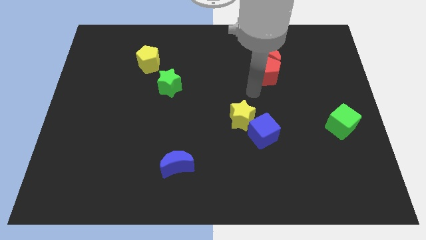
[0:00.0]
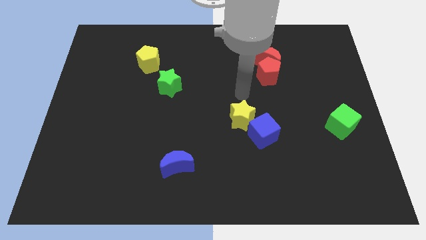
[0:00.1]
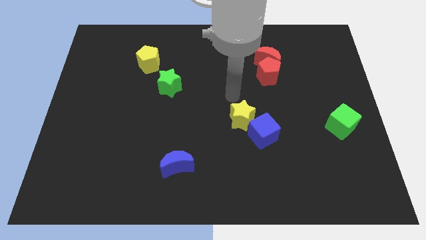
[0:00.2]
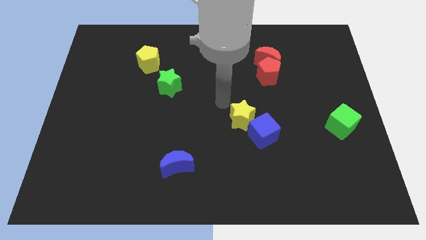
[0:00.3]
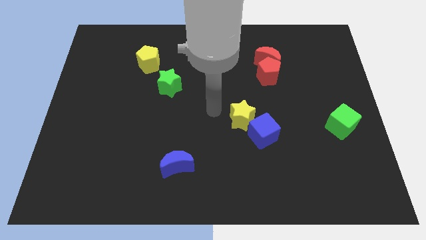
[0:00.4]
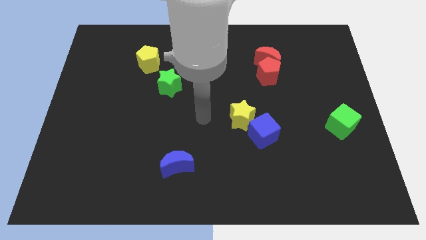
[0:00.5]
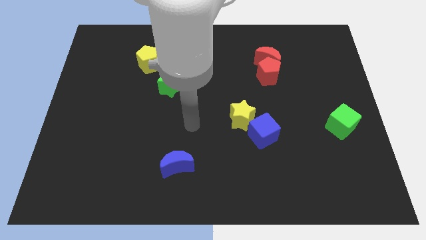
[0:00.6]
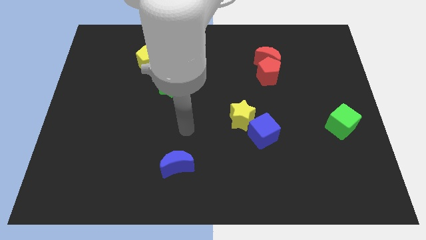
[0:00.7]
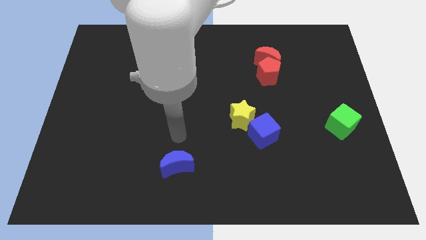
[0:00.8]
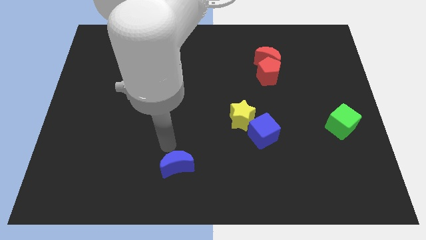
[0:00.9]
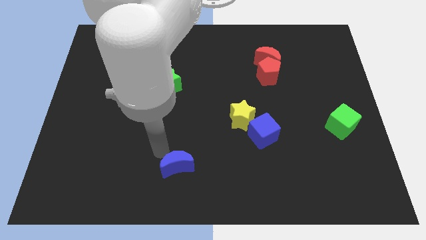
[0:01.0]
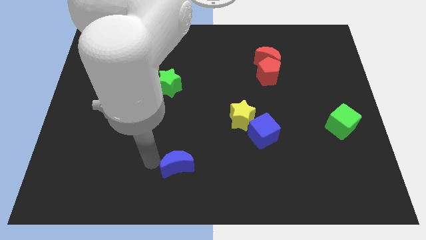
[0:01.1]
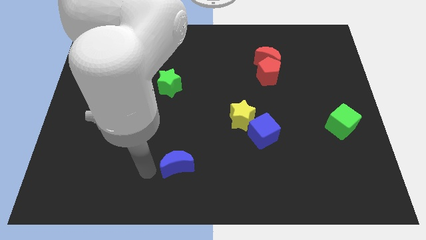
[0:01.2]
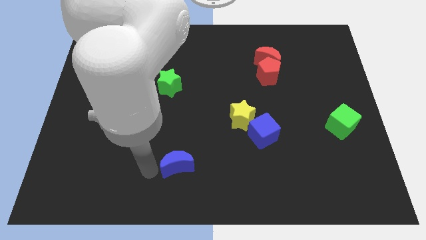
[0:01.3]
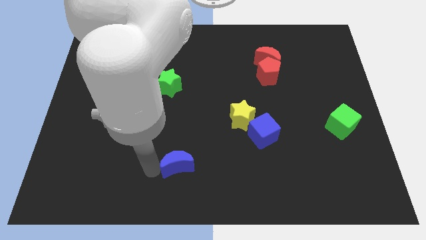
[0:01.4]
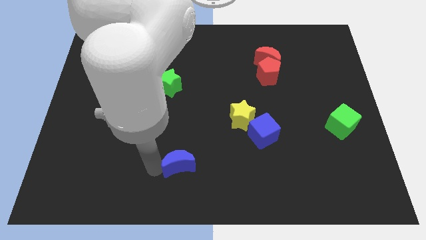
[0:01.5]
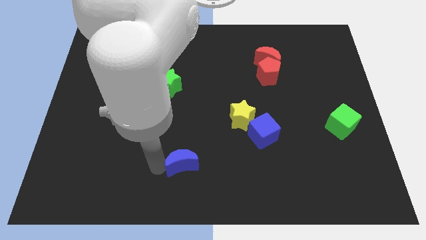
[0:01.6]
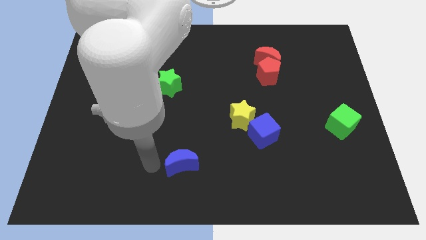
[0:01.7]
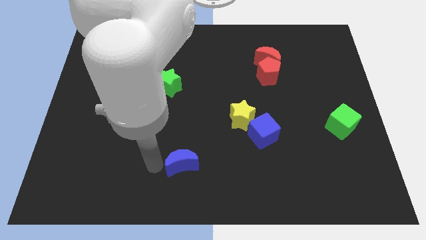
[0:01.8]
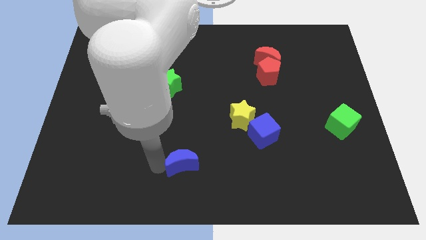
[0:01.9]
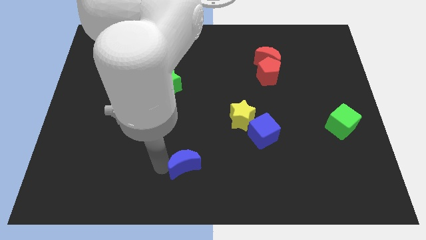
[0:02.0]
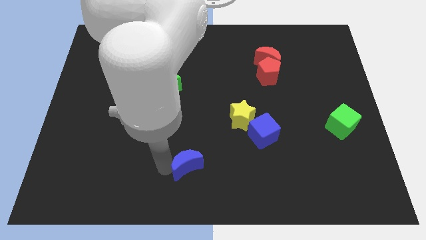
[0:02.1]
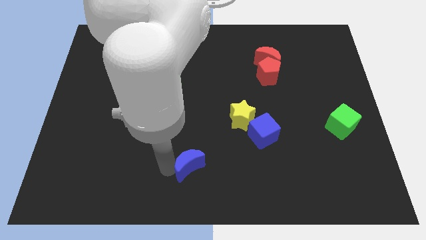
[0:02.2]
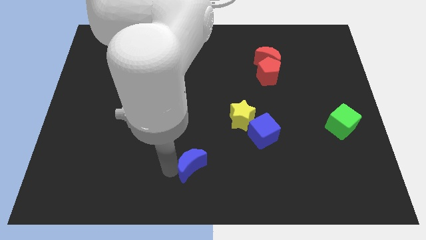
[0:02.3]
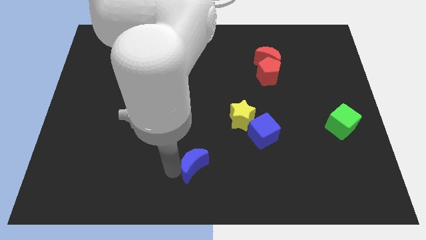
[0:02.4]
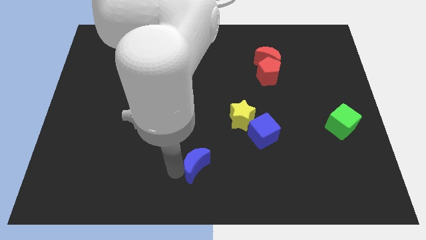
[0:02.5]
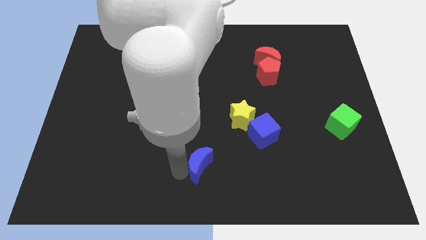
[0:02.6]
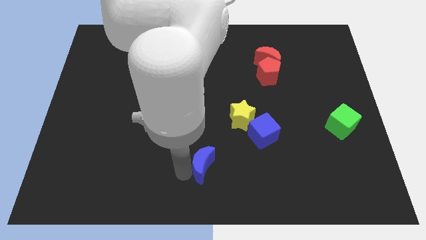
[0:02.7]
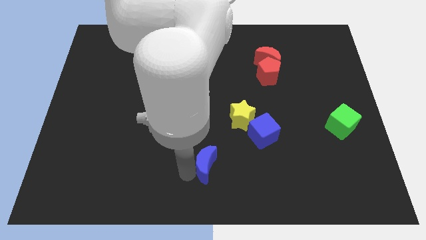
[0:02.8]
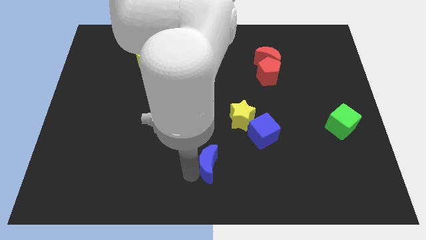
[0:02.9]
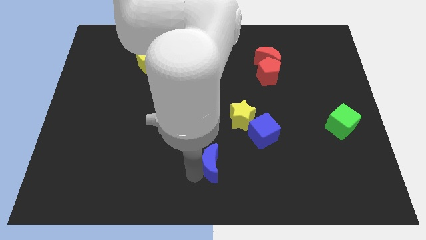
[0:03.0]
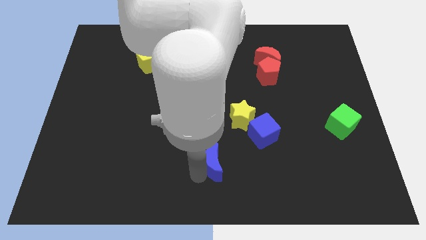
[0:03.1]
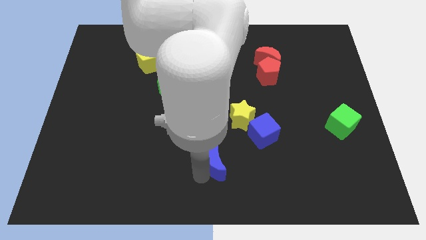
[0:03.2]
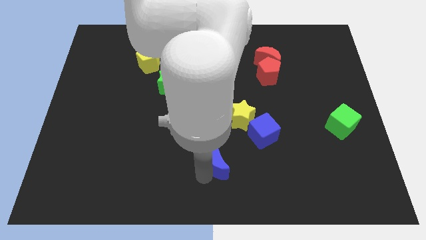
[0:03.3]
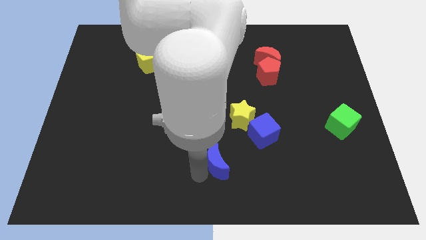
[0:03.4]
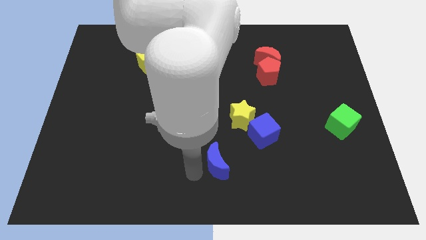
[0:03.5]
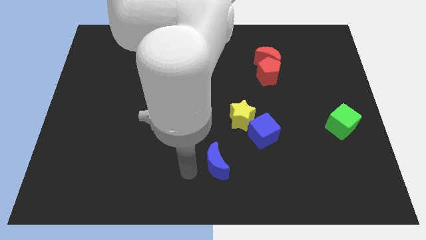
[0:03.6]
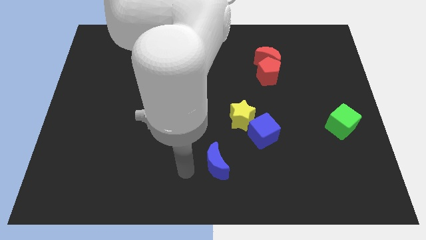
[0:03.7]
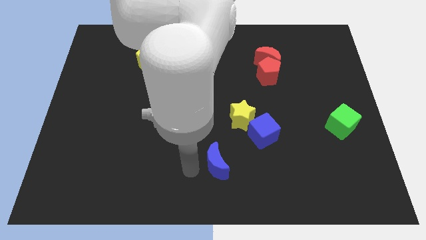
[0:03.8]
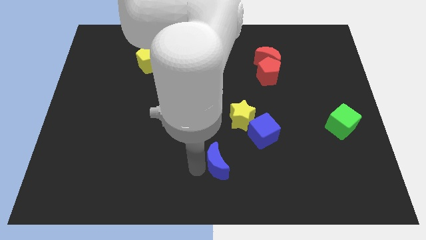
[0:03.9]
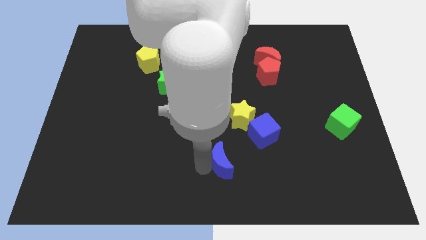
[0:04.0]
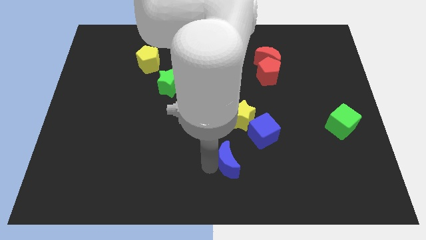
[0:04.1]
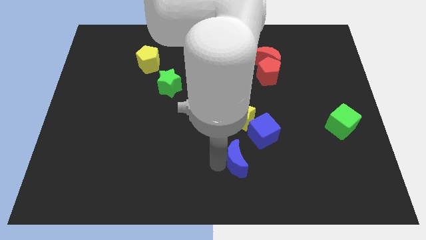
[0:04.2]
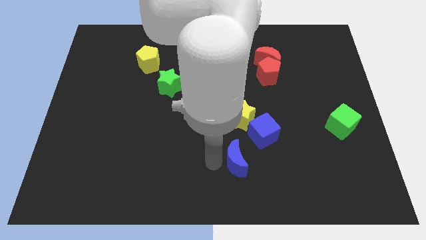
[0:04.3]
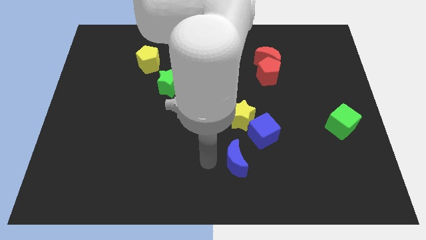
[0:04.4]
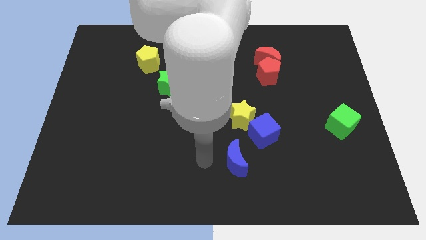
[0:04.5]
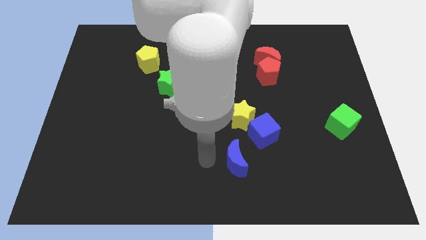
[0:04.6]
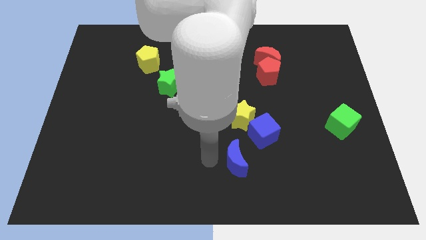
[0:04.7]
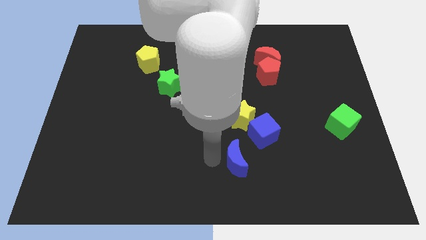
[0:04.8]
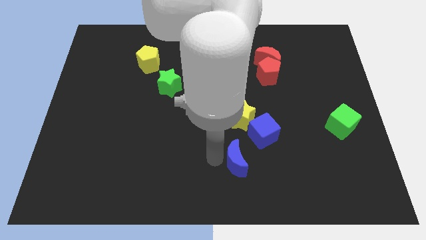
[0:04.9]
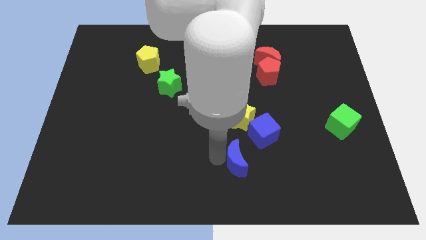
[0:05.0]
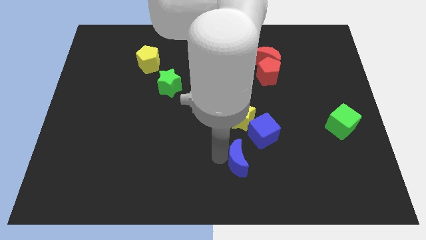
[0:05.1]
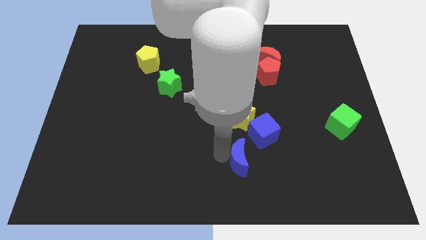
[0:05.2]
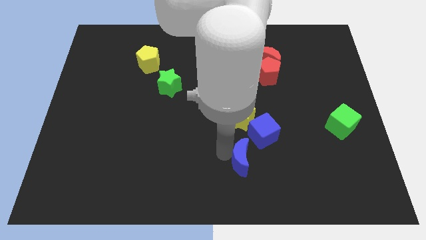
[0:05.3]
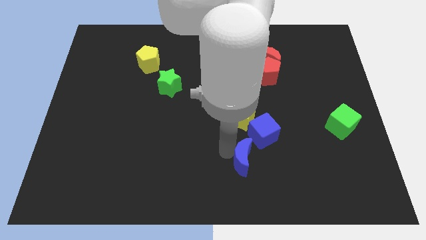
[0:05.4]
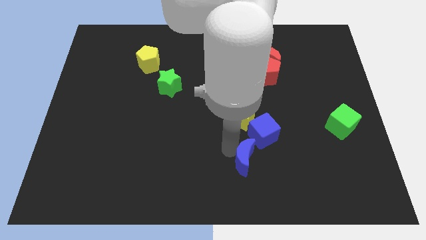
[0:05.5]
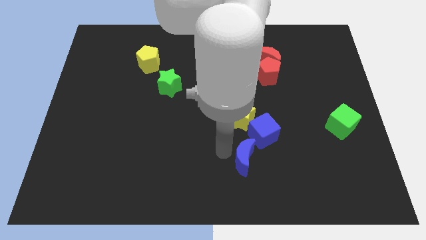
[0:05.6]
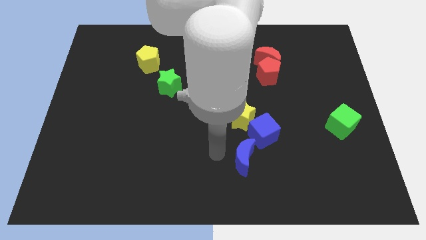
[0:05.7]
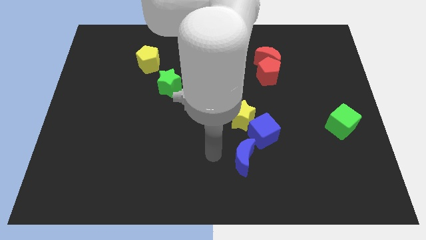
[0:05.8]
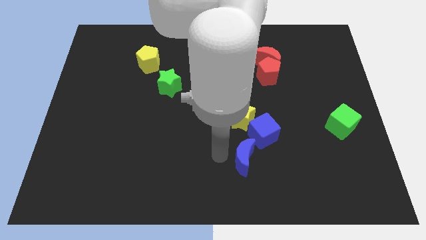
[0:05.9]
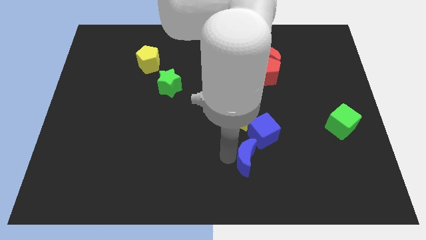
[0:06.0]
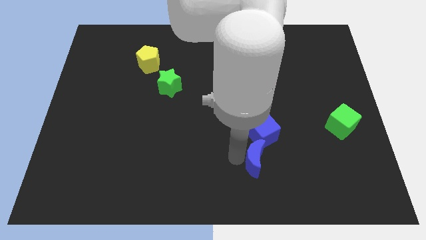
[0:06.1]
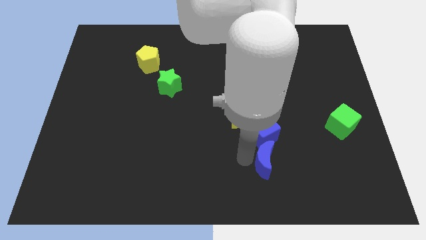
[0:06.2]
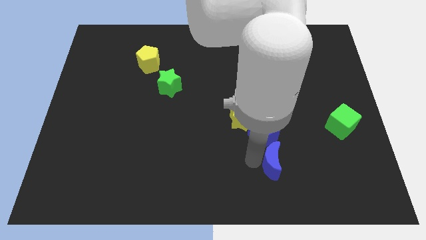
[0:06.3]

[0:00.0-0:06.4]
slide the blue moon right

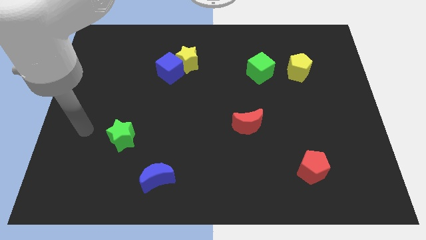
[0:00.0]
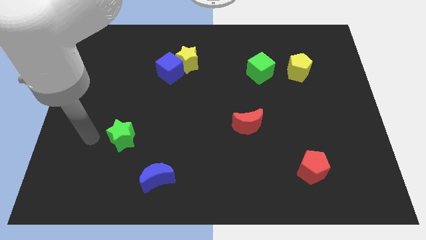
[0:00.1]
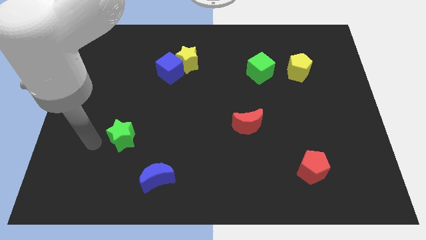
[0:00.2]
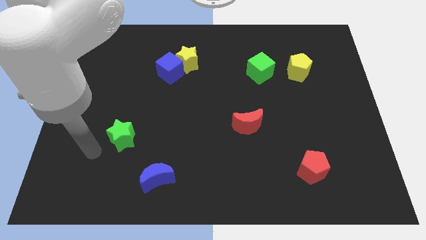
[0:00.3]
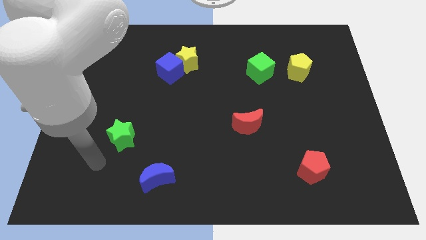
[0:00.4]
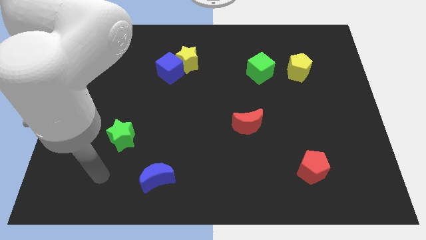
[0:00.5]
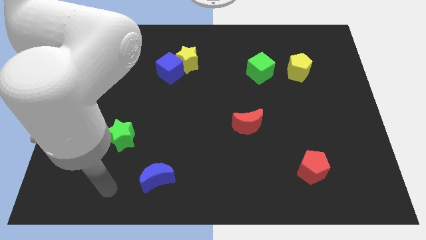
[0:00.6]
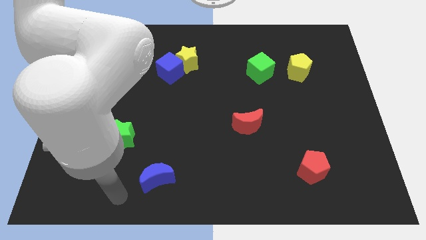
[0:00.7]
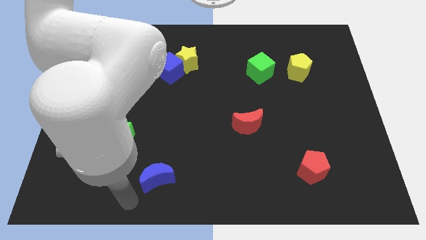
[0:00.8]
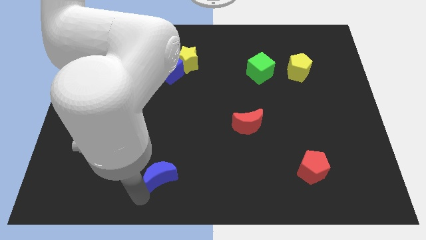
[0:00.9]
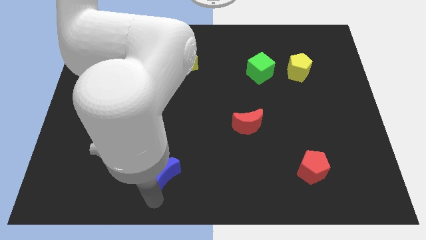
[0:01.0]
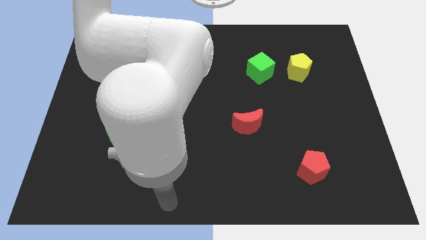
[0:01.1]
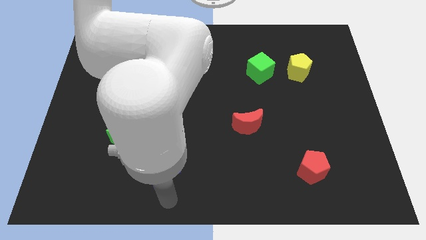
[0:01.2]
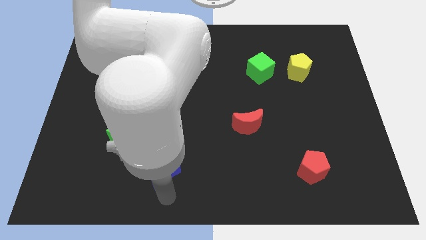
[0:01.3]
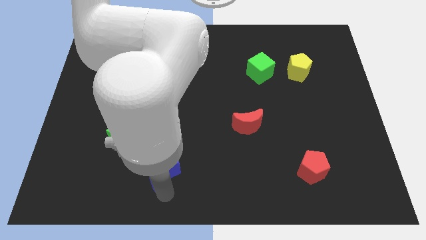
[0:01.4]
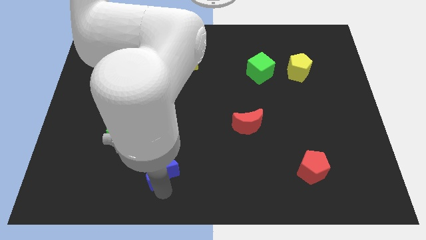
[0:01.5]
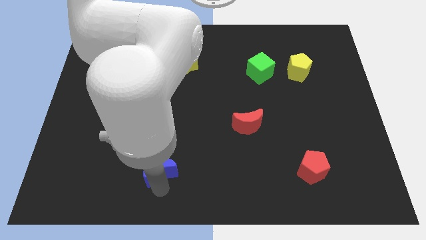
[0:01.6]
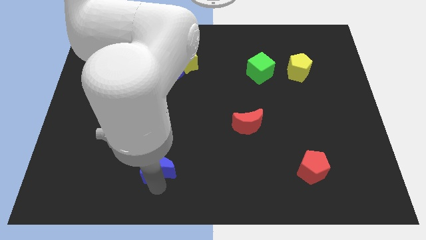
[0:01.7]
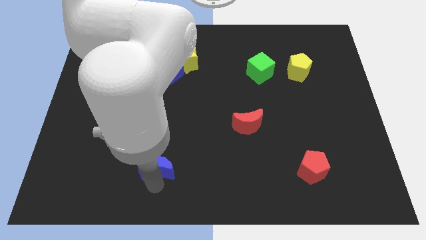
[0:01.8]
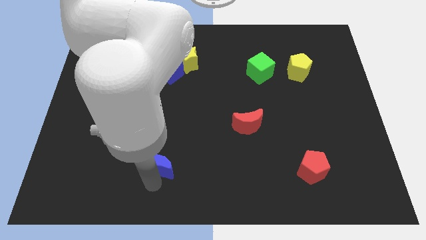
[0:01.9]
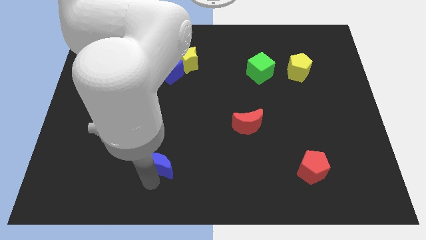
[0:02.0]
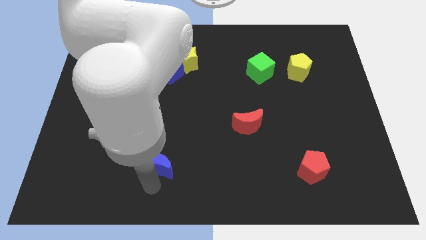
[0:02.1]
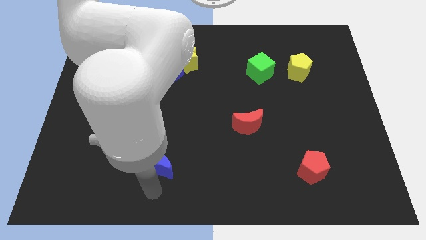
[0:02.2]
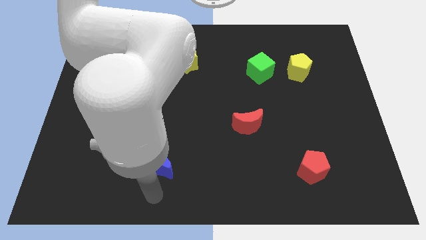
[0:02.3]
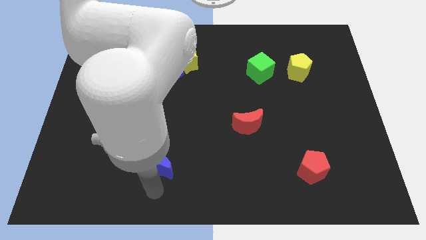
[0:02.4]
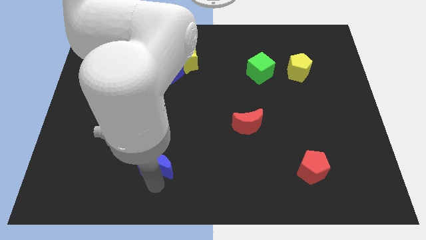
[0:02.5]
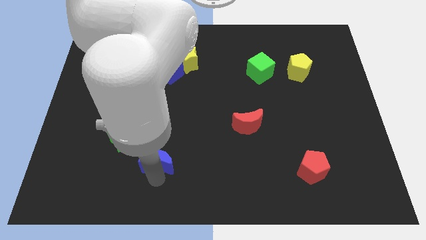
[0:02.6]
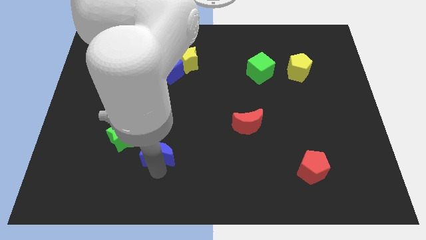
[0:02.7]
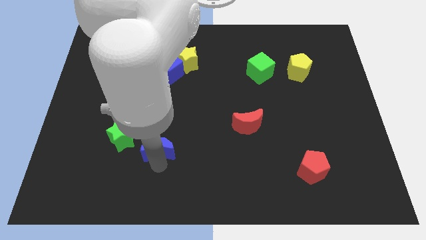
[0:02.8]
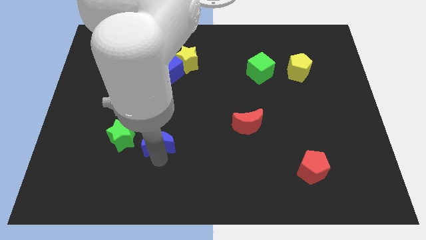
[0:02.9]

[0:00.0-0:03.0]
slide the blue moon slightly upwards
